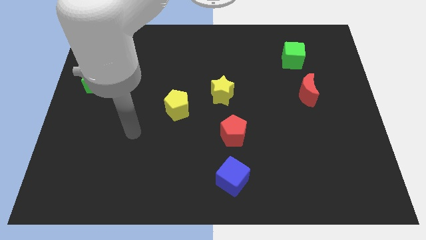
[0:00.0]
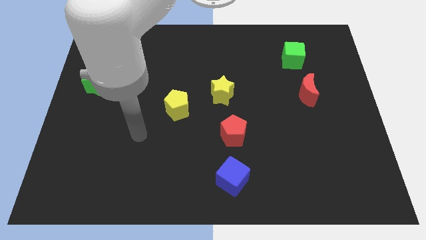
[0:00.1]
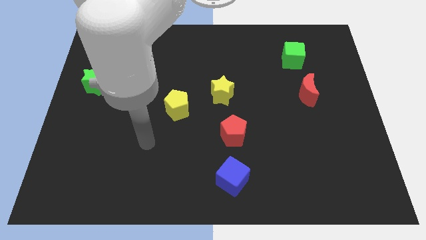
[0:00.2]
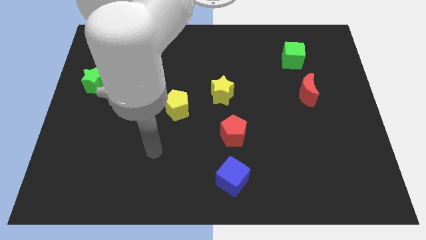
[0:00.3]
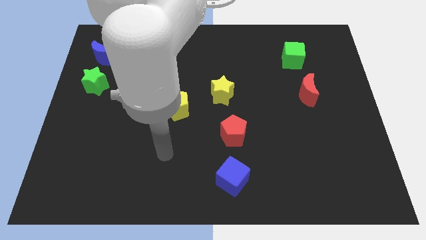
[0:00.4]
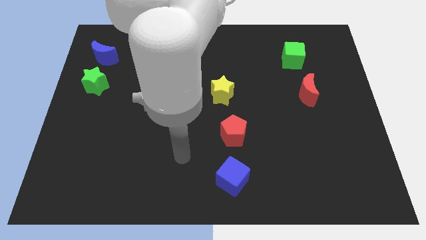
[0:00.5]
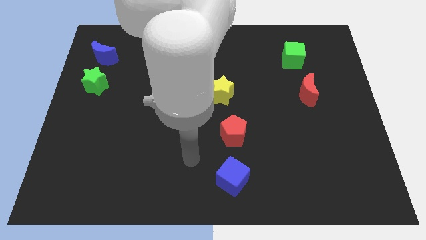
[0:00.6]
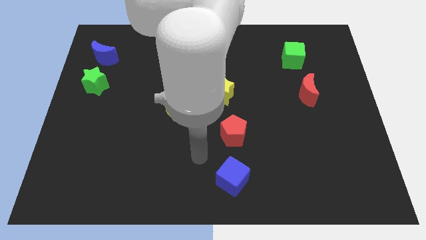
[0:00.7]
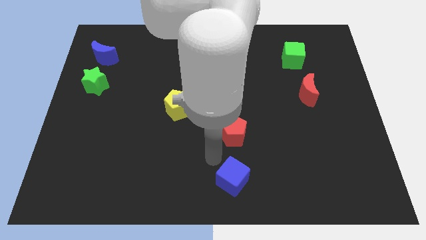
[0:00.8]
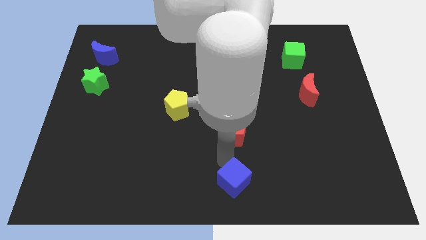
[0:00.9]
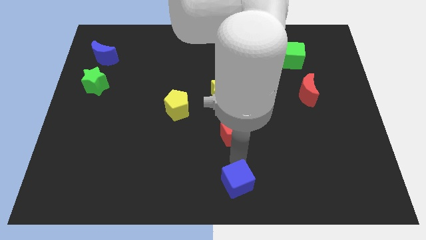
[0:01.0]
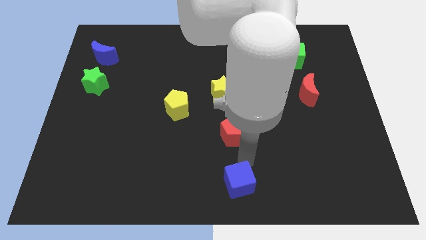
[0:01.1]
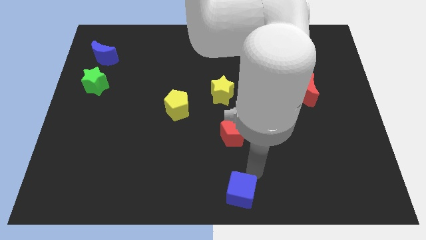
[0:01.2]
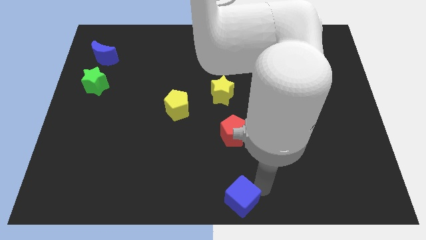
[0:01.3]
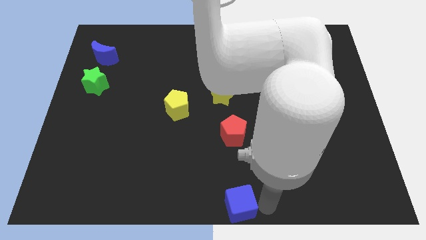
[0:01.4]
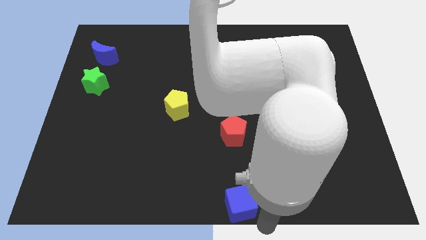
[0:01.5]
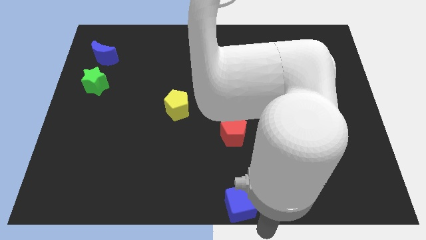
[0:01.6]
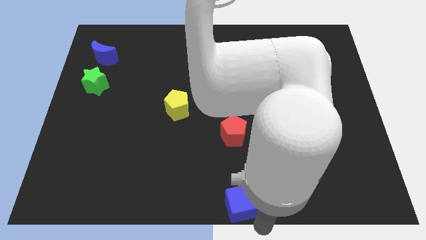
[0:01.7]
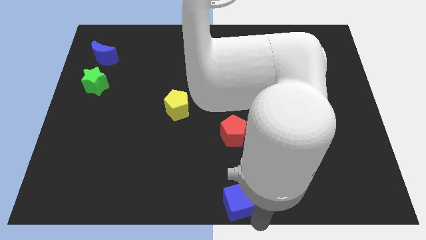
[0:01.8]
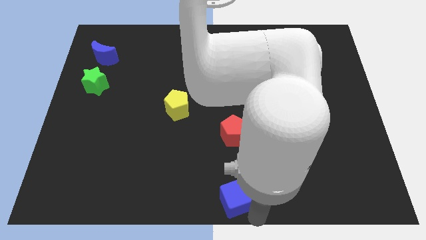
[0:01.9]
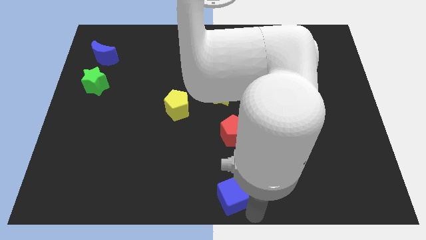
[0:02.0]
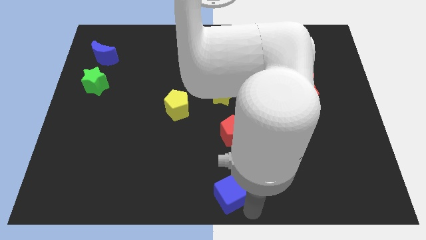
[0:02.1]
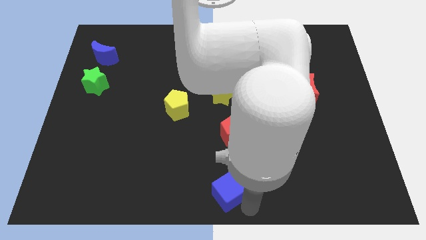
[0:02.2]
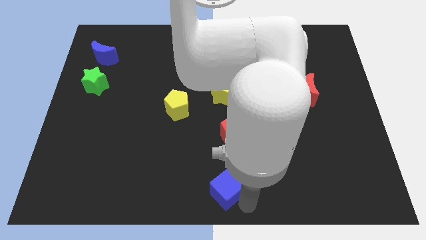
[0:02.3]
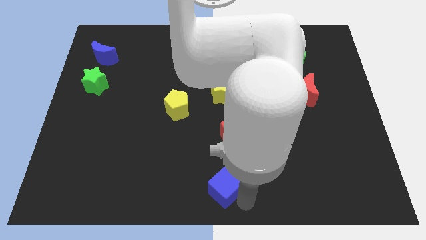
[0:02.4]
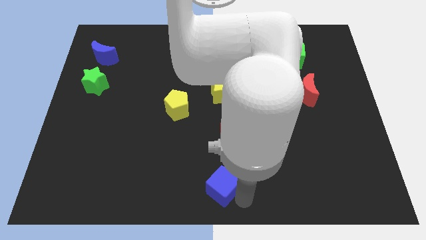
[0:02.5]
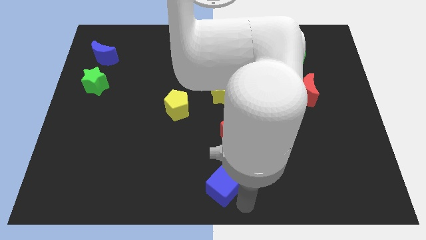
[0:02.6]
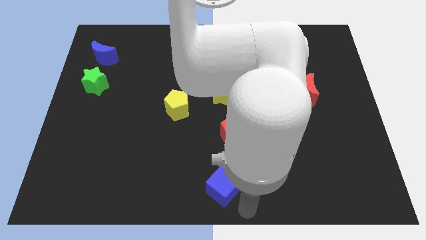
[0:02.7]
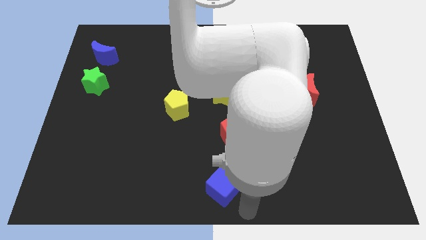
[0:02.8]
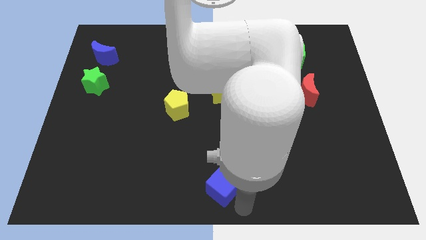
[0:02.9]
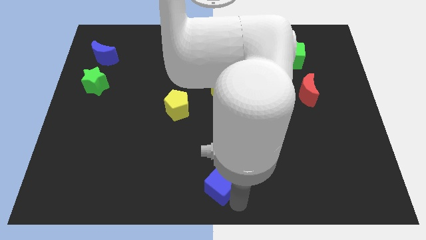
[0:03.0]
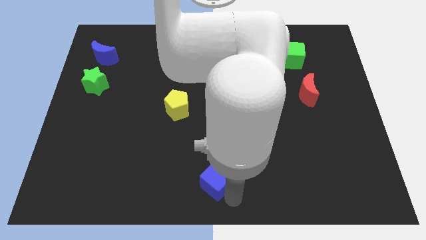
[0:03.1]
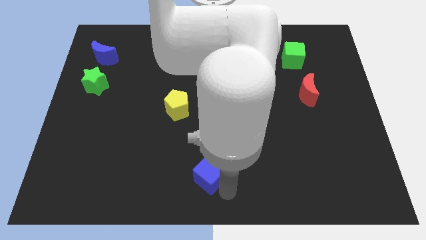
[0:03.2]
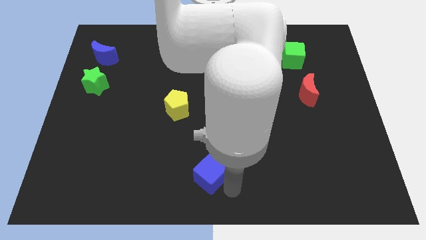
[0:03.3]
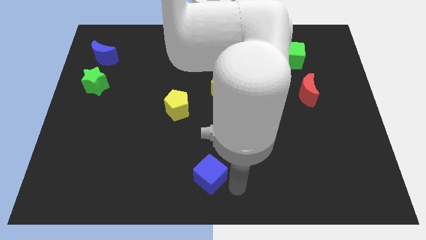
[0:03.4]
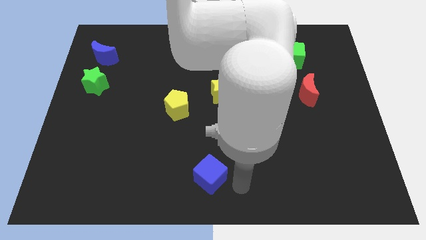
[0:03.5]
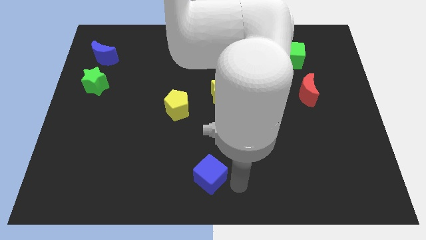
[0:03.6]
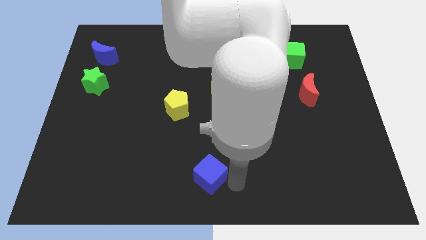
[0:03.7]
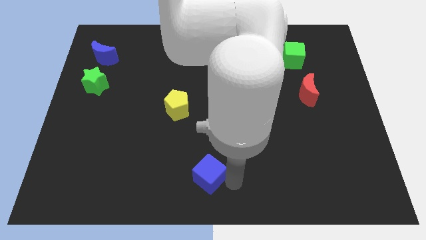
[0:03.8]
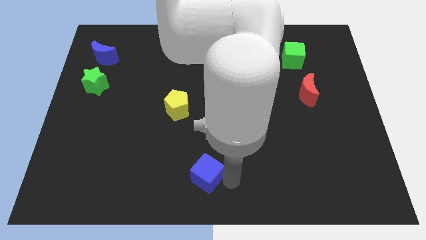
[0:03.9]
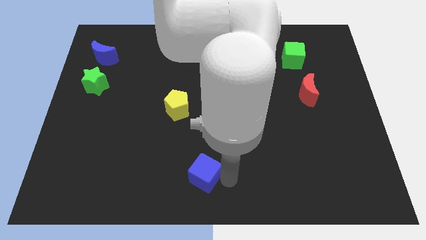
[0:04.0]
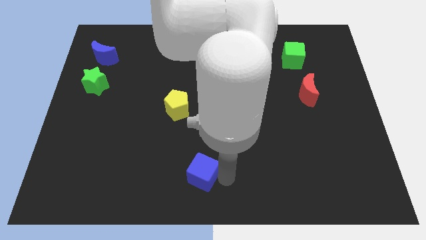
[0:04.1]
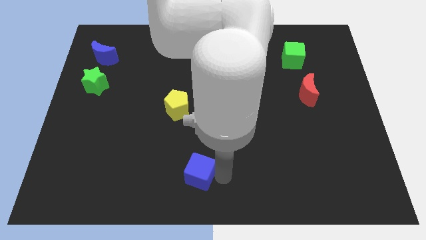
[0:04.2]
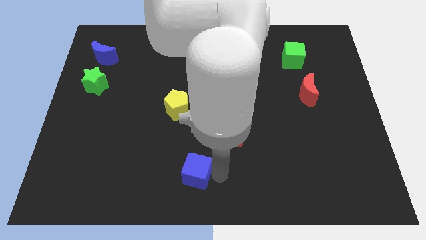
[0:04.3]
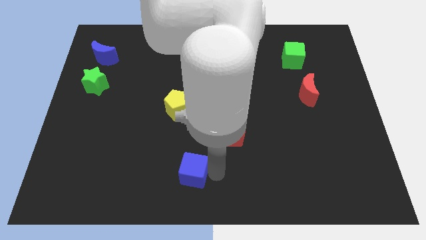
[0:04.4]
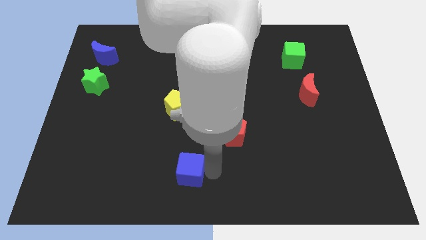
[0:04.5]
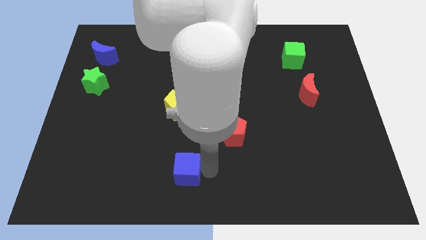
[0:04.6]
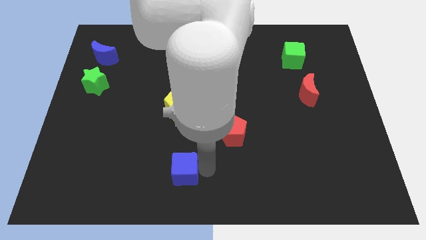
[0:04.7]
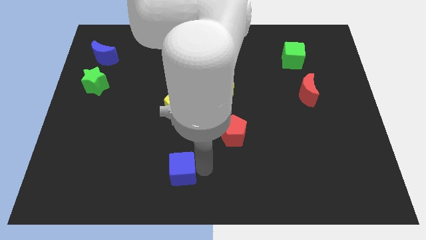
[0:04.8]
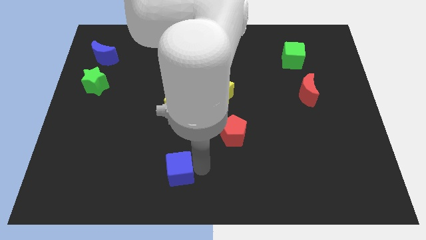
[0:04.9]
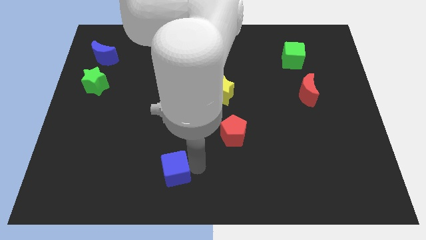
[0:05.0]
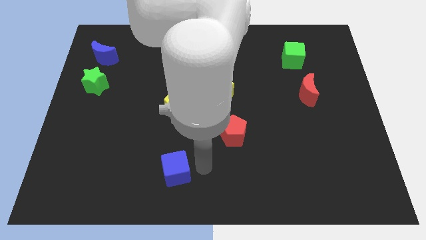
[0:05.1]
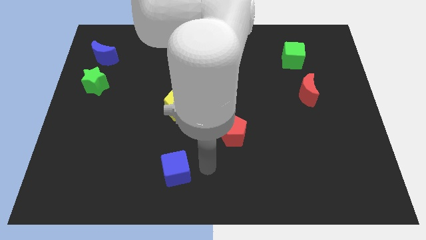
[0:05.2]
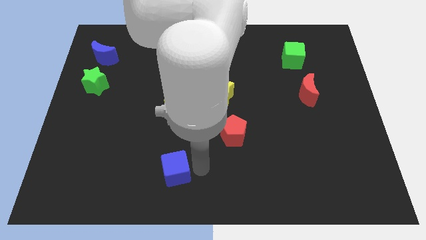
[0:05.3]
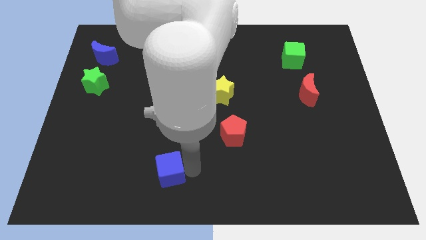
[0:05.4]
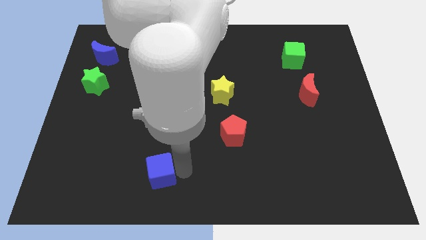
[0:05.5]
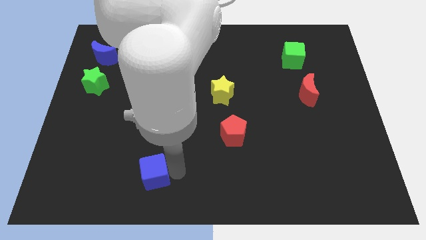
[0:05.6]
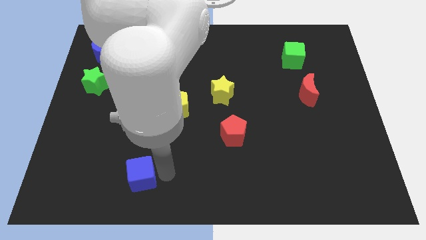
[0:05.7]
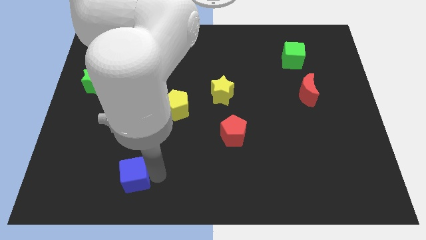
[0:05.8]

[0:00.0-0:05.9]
move the blue cube to the left

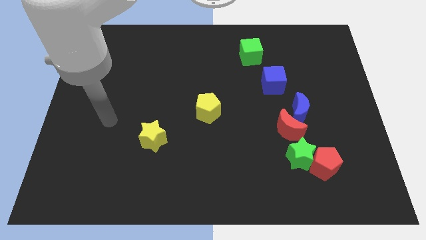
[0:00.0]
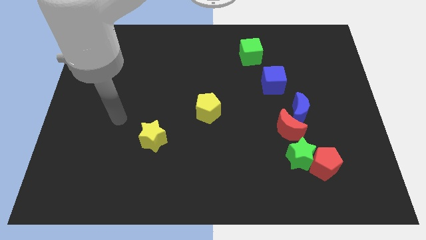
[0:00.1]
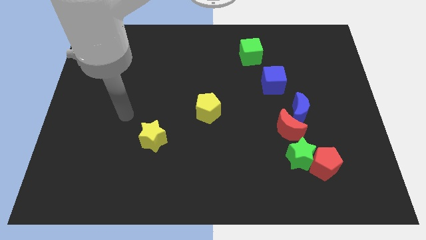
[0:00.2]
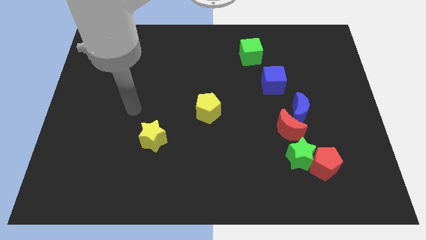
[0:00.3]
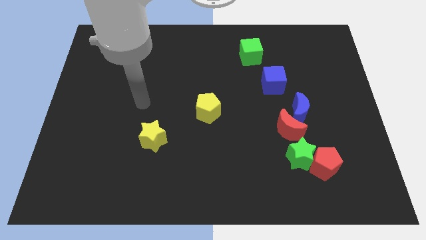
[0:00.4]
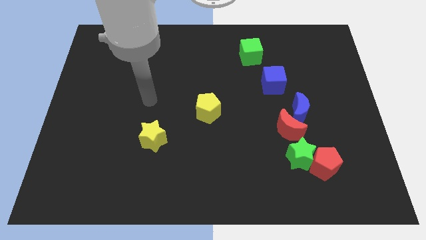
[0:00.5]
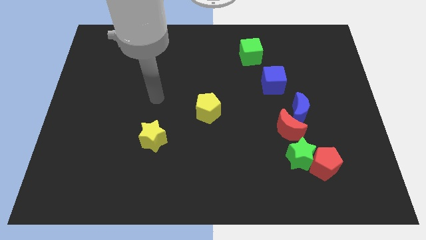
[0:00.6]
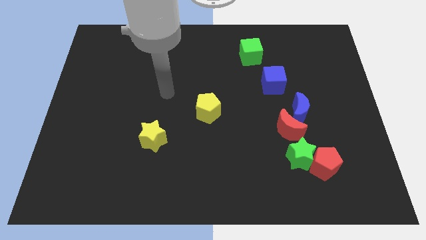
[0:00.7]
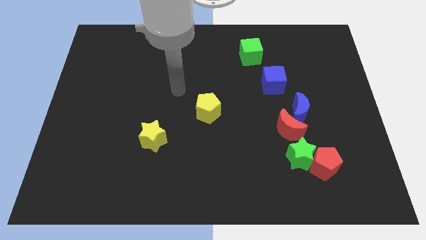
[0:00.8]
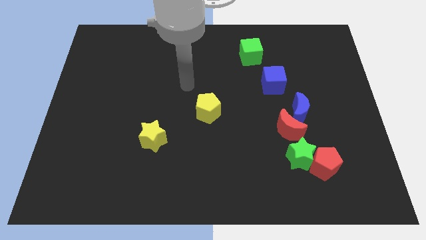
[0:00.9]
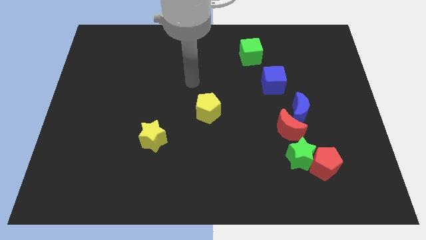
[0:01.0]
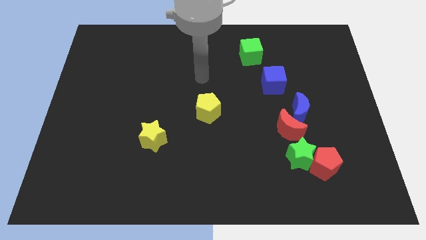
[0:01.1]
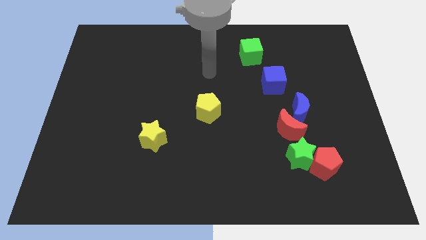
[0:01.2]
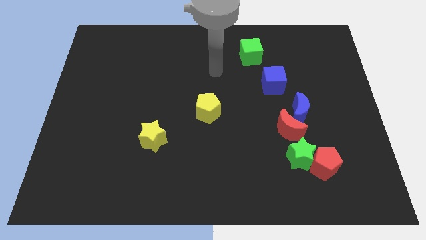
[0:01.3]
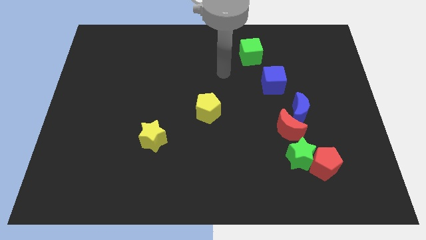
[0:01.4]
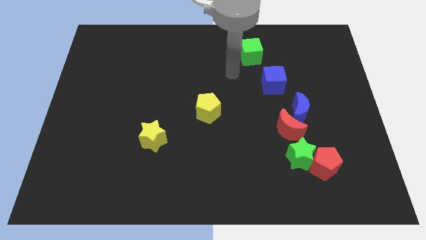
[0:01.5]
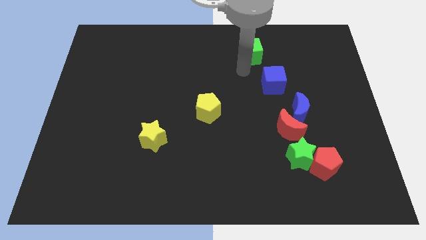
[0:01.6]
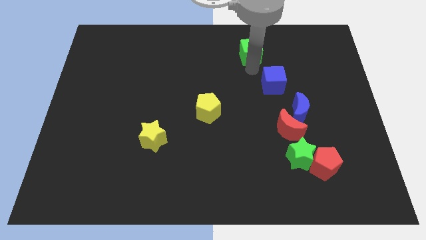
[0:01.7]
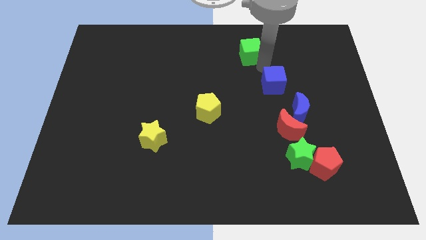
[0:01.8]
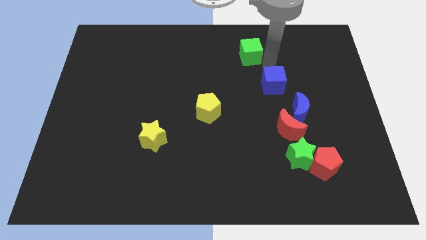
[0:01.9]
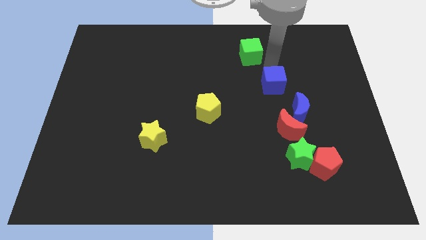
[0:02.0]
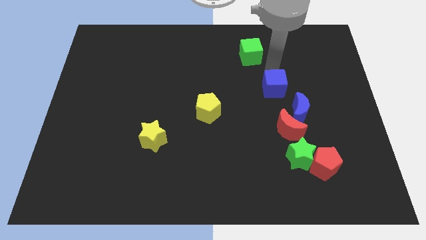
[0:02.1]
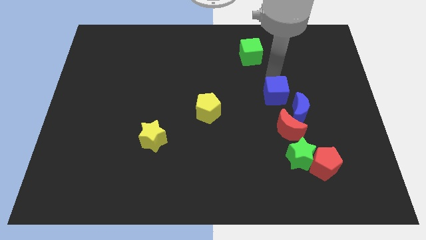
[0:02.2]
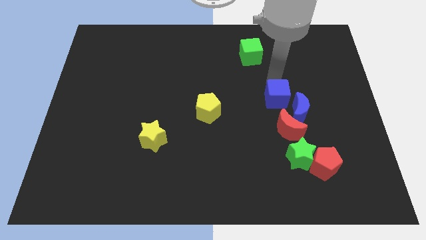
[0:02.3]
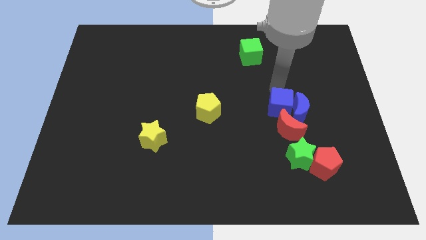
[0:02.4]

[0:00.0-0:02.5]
push the blue cube downwards somewhat

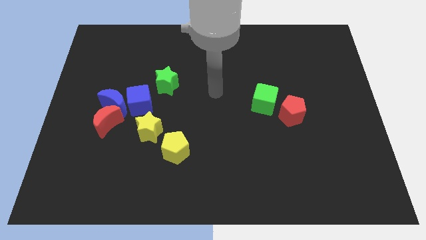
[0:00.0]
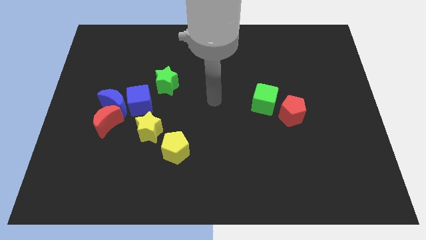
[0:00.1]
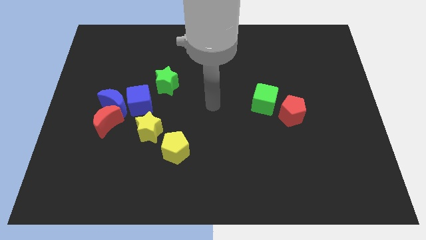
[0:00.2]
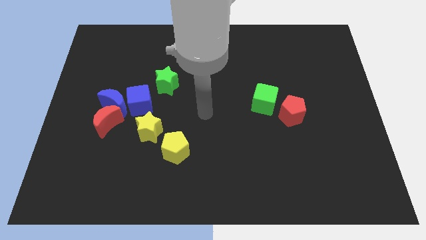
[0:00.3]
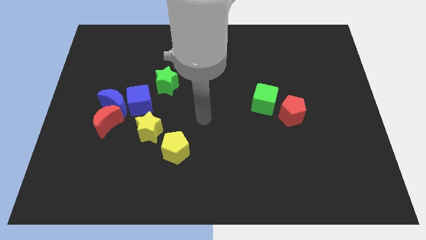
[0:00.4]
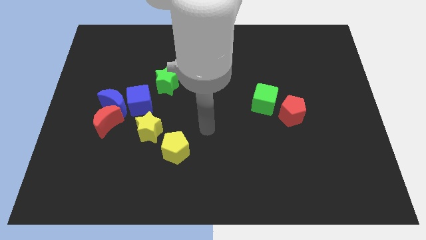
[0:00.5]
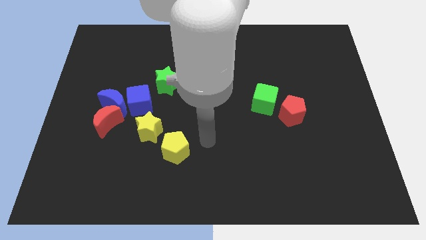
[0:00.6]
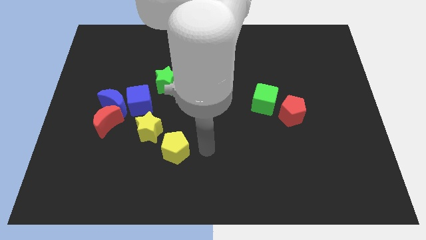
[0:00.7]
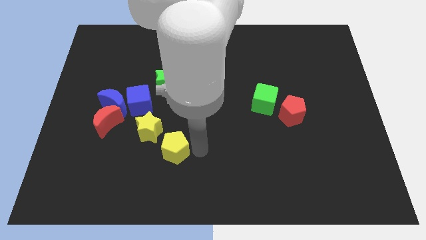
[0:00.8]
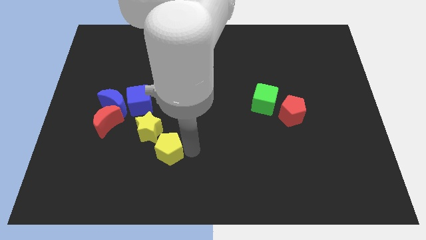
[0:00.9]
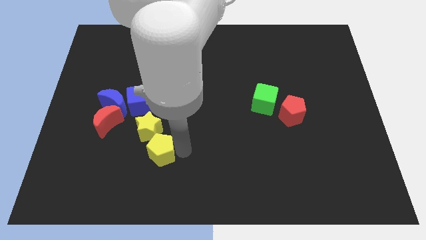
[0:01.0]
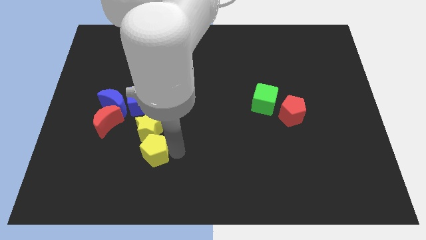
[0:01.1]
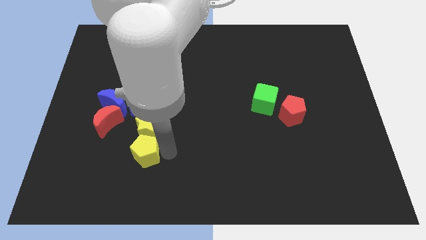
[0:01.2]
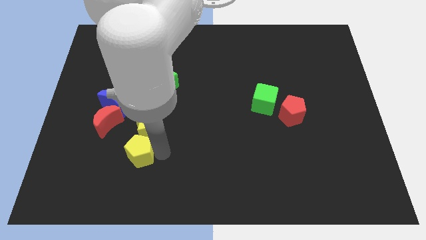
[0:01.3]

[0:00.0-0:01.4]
move the yellow pentagon a bit left
